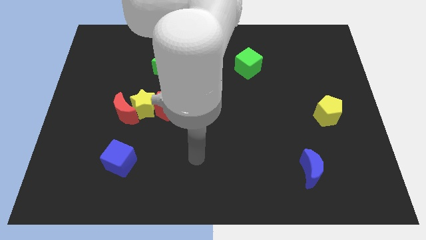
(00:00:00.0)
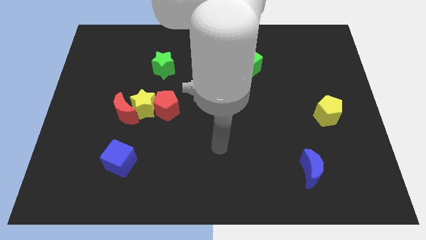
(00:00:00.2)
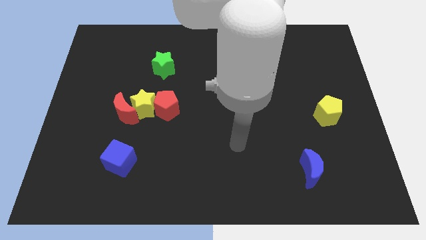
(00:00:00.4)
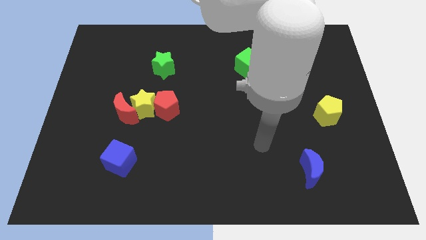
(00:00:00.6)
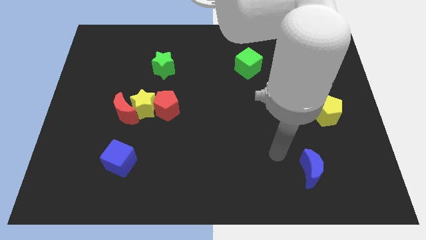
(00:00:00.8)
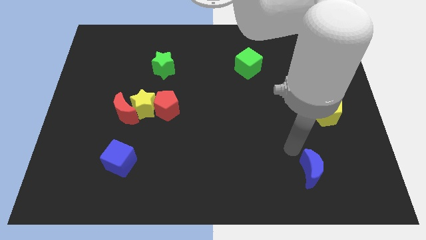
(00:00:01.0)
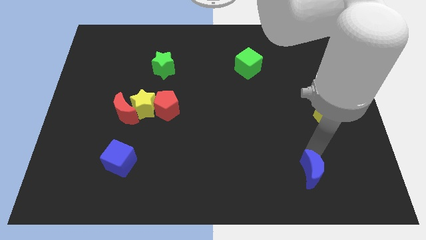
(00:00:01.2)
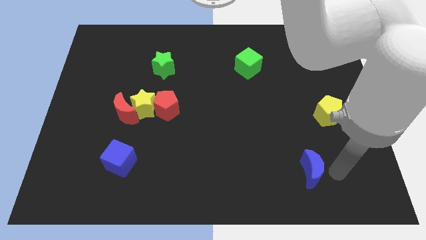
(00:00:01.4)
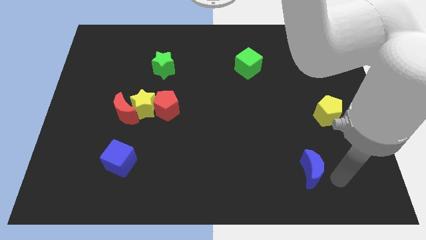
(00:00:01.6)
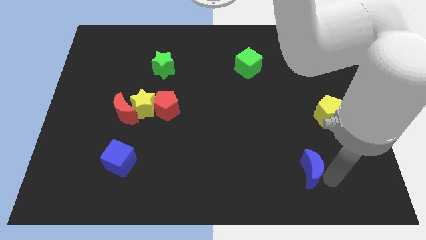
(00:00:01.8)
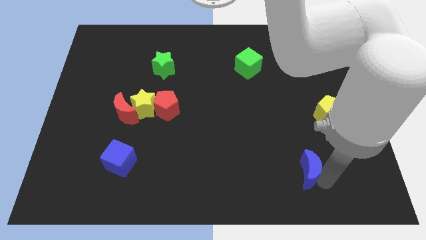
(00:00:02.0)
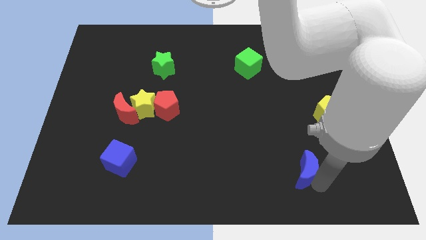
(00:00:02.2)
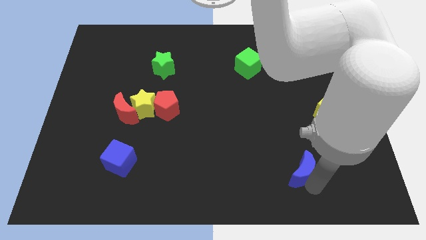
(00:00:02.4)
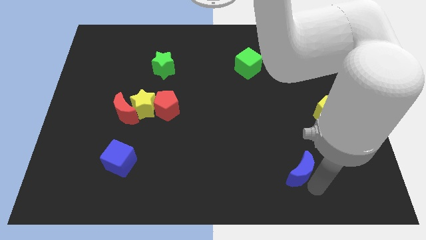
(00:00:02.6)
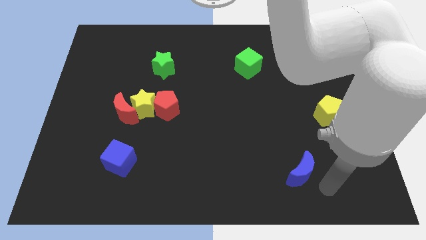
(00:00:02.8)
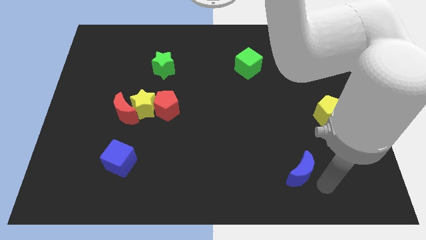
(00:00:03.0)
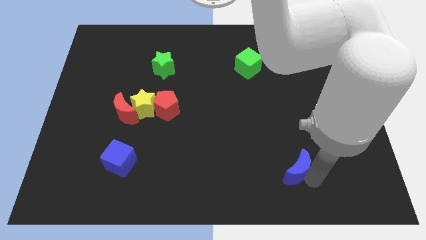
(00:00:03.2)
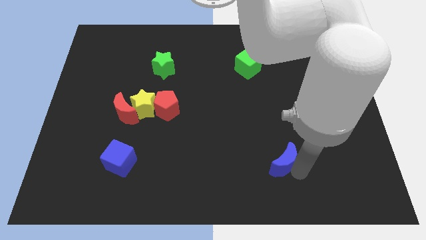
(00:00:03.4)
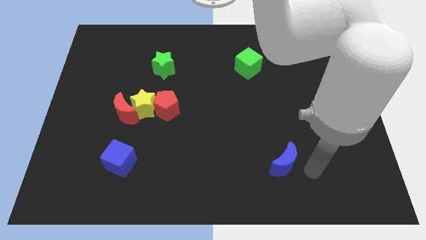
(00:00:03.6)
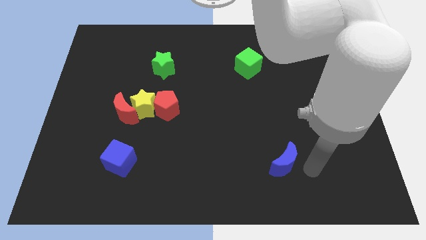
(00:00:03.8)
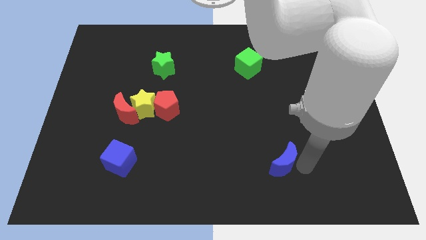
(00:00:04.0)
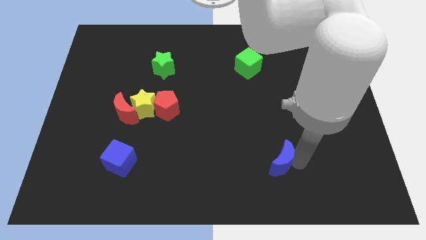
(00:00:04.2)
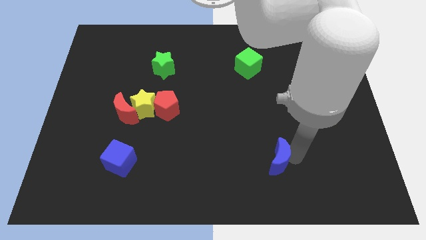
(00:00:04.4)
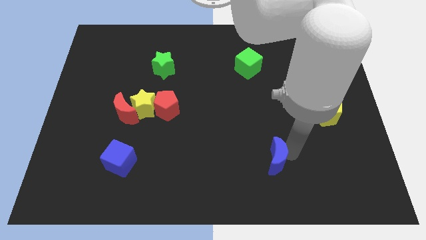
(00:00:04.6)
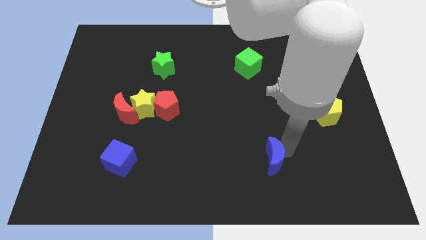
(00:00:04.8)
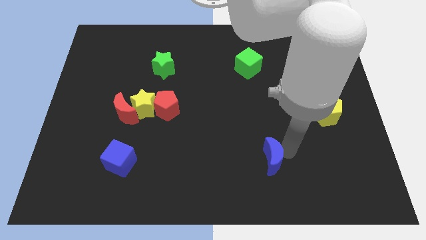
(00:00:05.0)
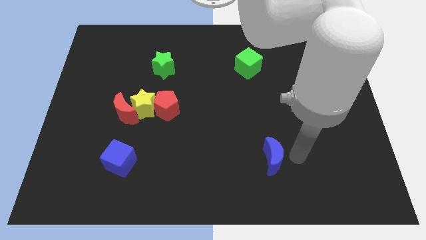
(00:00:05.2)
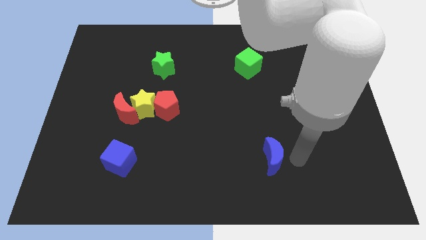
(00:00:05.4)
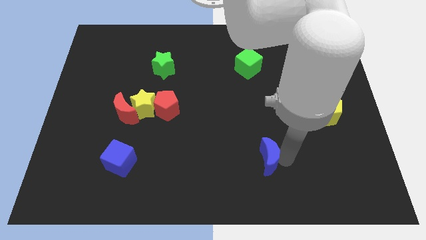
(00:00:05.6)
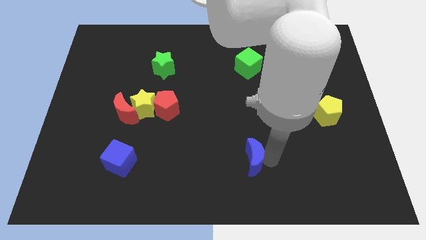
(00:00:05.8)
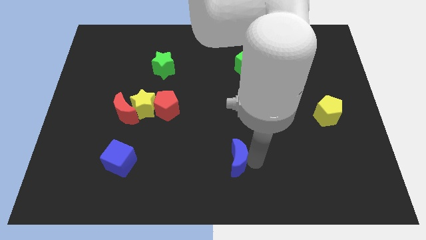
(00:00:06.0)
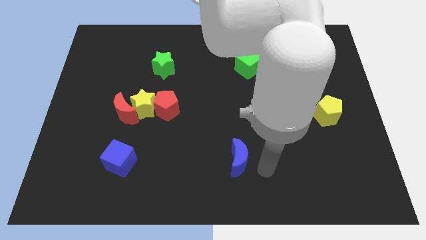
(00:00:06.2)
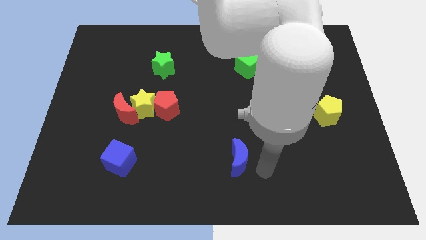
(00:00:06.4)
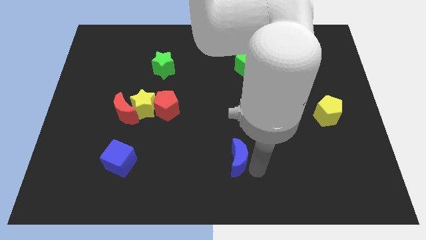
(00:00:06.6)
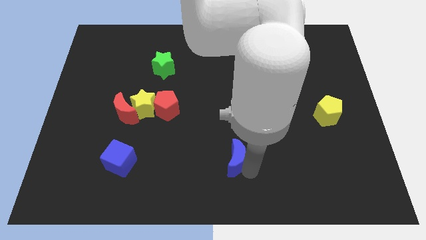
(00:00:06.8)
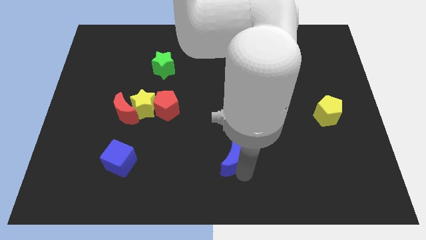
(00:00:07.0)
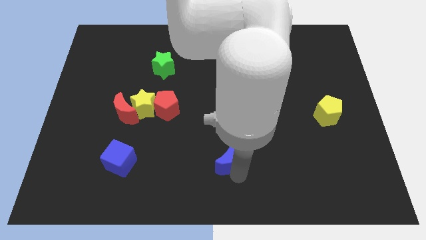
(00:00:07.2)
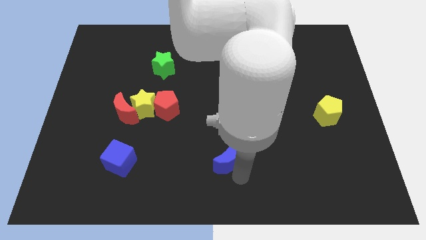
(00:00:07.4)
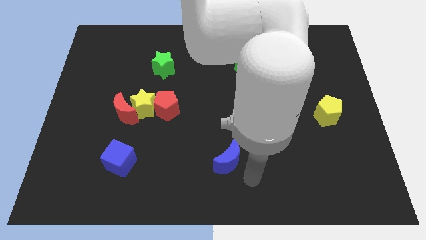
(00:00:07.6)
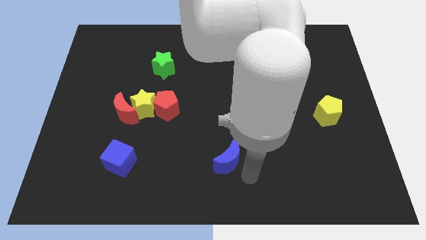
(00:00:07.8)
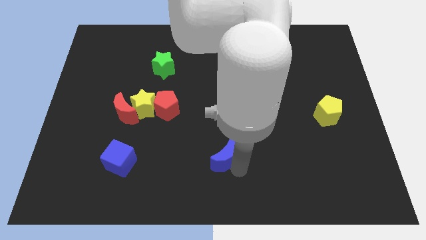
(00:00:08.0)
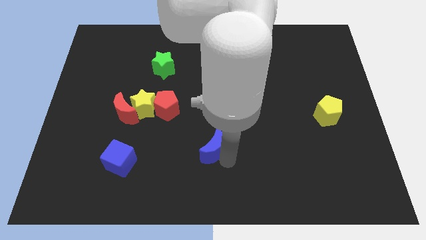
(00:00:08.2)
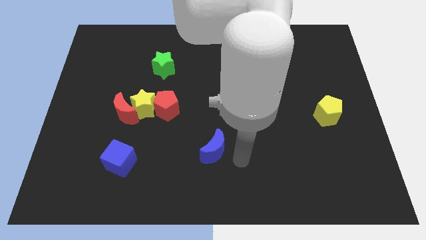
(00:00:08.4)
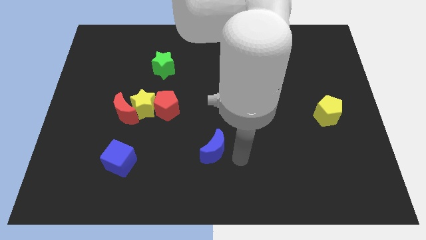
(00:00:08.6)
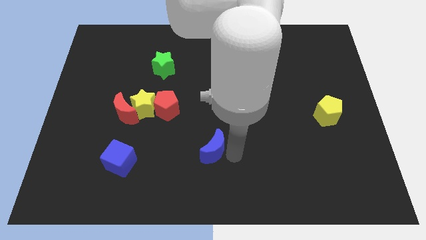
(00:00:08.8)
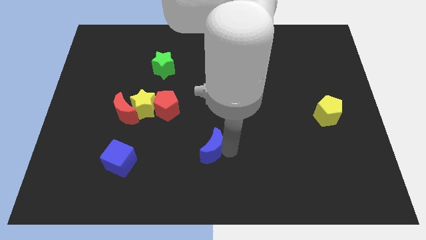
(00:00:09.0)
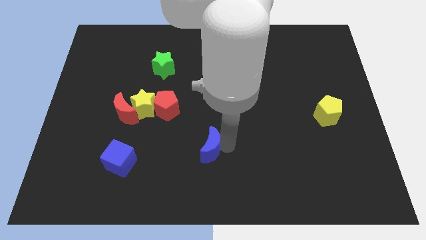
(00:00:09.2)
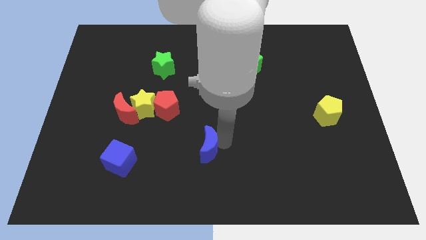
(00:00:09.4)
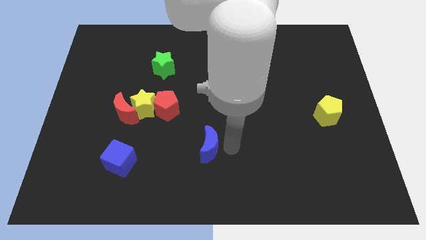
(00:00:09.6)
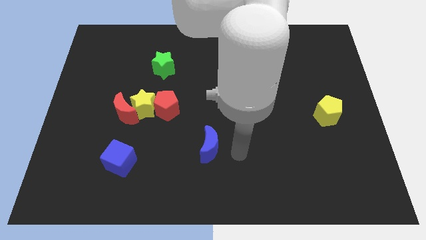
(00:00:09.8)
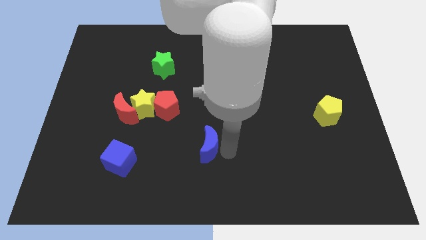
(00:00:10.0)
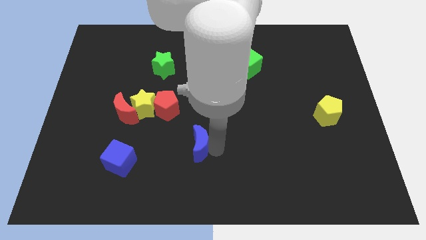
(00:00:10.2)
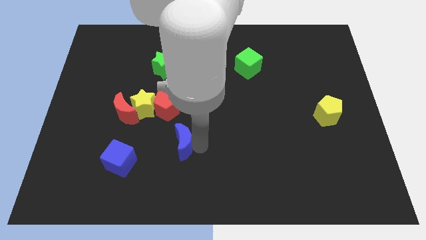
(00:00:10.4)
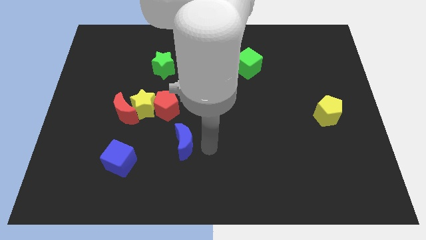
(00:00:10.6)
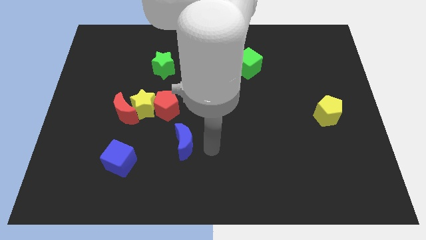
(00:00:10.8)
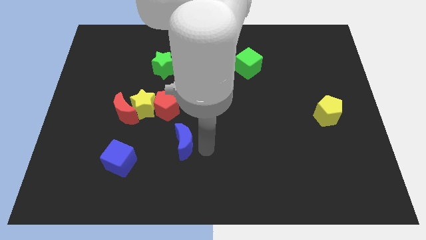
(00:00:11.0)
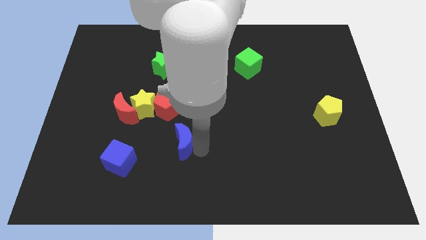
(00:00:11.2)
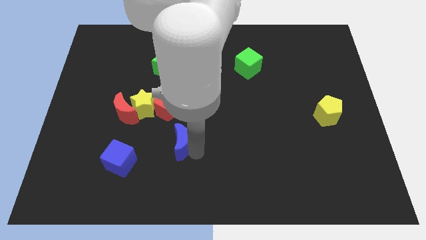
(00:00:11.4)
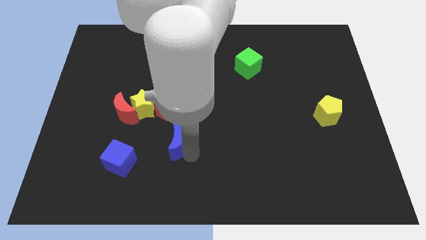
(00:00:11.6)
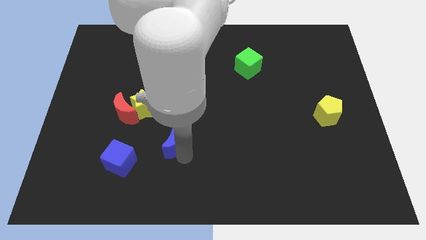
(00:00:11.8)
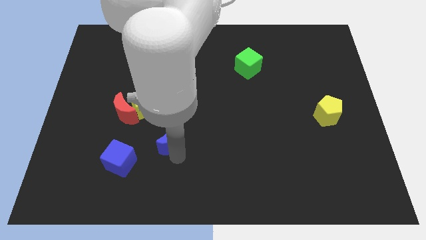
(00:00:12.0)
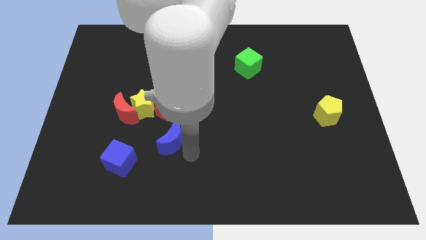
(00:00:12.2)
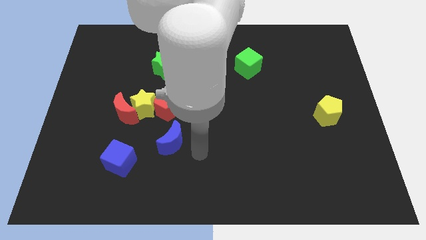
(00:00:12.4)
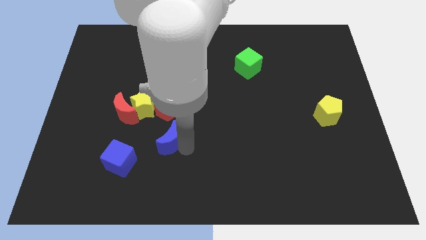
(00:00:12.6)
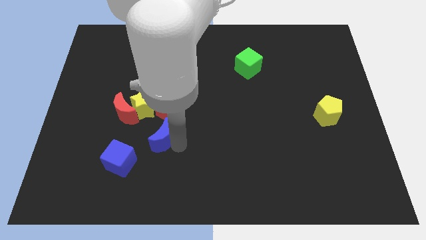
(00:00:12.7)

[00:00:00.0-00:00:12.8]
move the blue moon to the bottom right of the red moon
